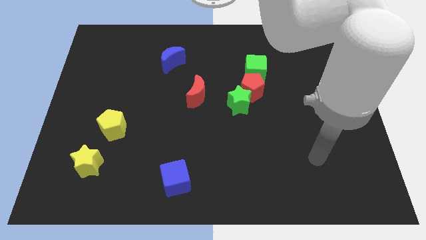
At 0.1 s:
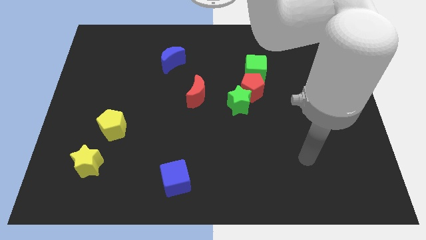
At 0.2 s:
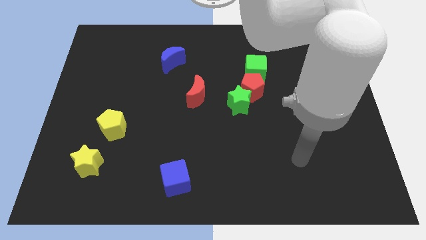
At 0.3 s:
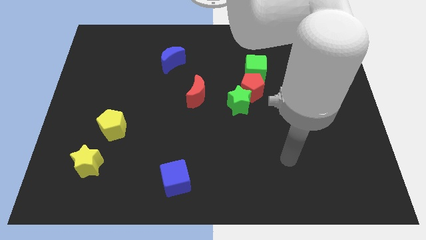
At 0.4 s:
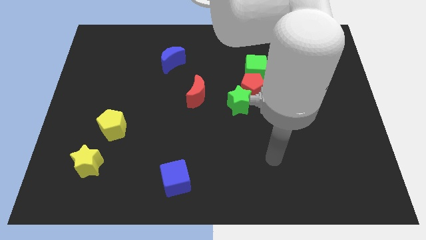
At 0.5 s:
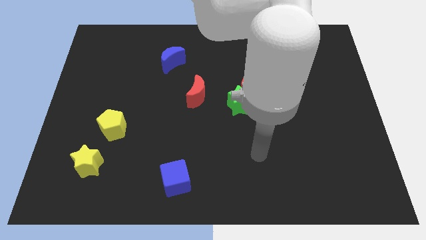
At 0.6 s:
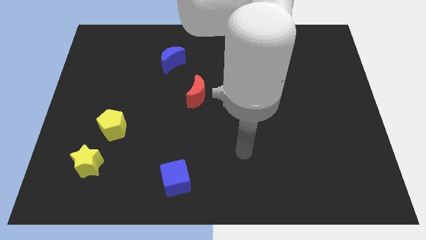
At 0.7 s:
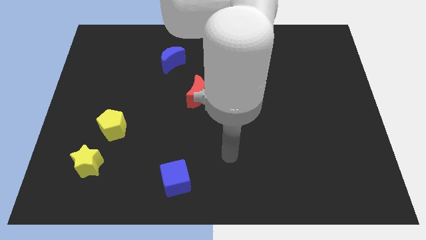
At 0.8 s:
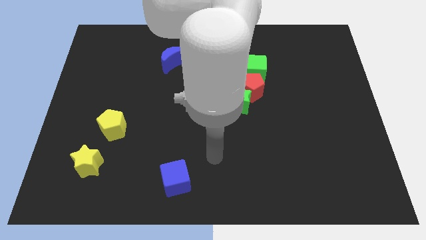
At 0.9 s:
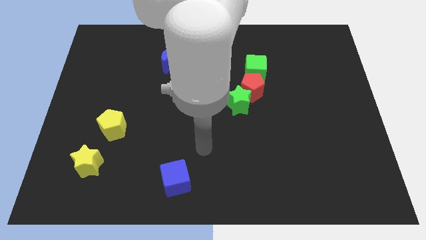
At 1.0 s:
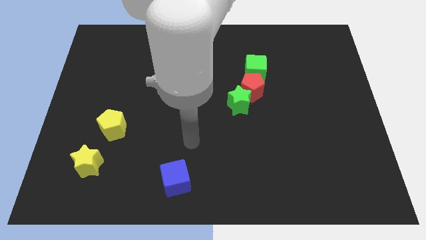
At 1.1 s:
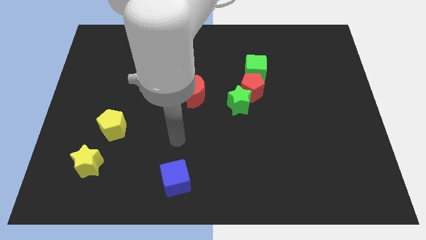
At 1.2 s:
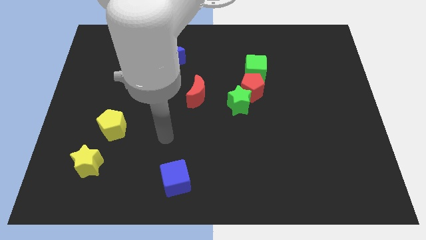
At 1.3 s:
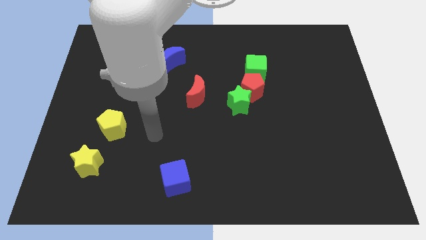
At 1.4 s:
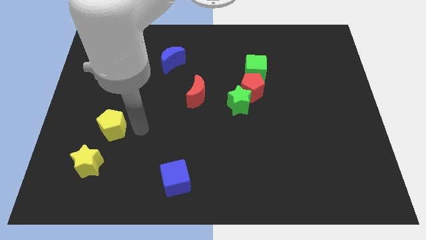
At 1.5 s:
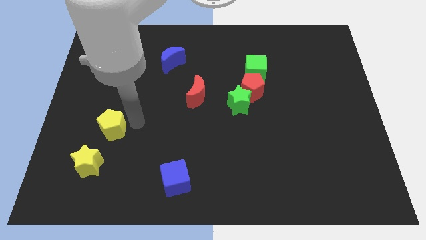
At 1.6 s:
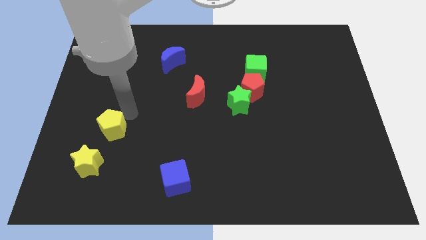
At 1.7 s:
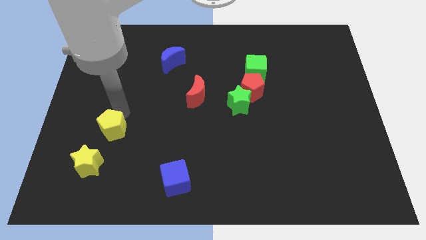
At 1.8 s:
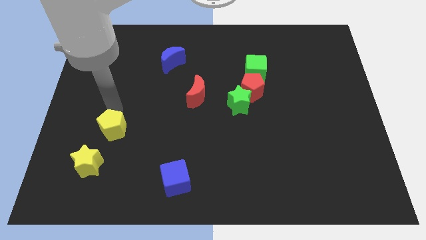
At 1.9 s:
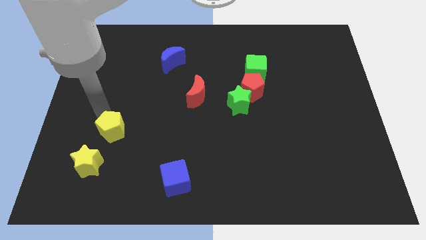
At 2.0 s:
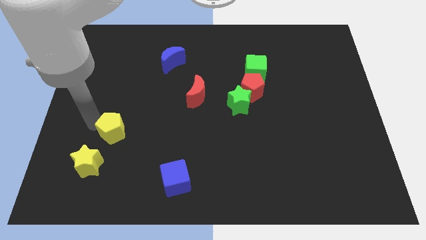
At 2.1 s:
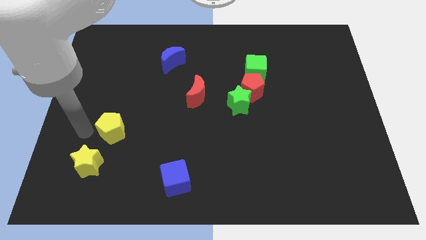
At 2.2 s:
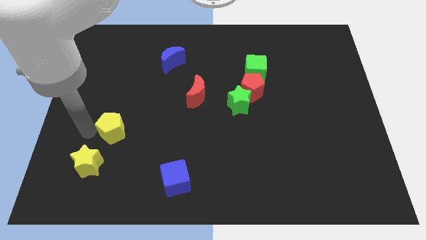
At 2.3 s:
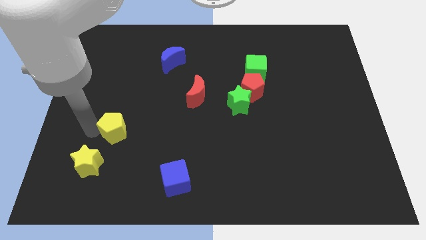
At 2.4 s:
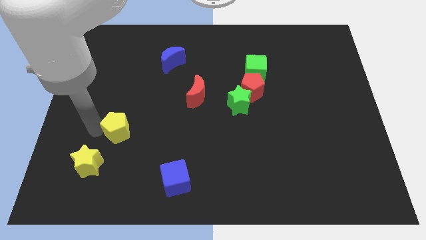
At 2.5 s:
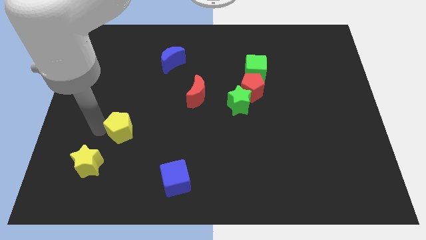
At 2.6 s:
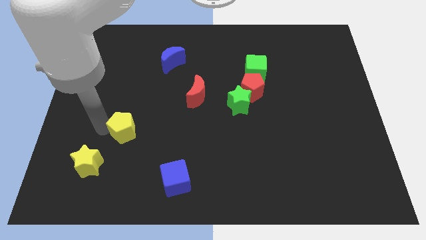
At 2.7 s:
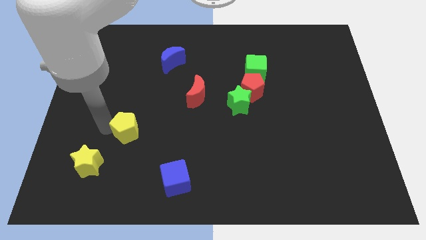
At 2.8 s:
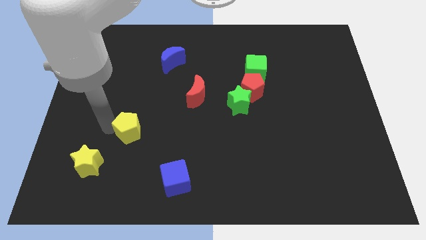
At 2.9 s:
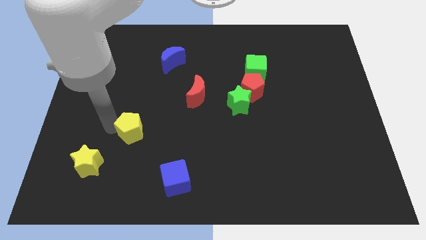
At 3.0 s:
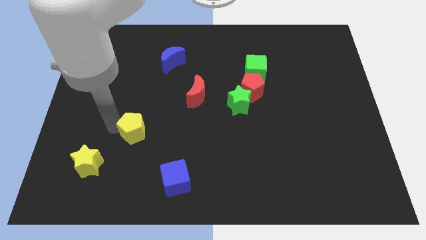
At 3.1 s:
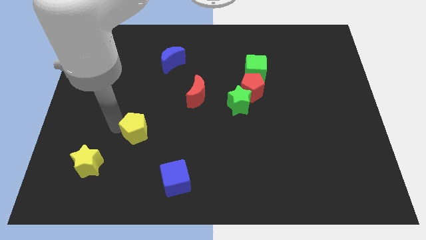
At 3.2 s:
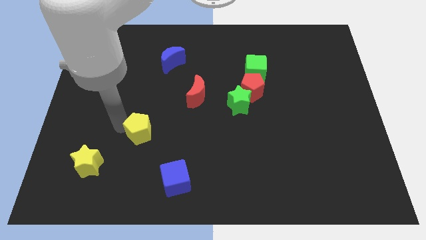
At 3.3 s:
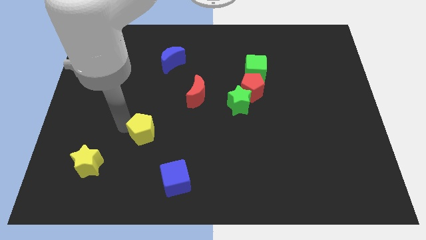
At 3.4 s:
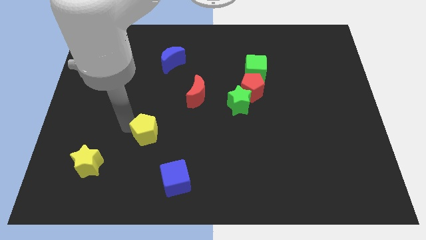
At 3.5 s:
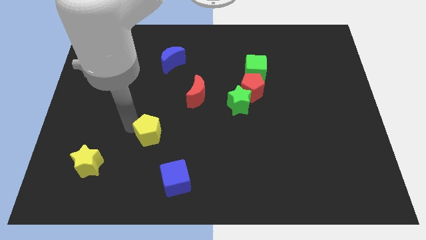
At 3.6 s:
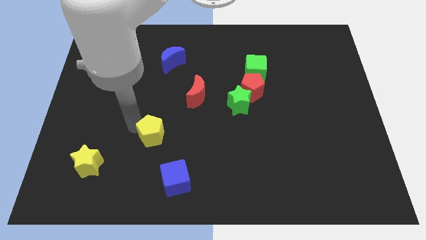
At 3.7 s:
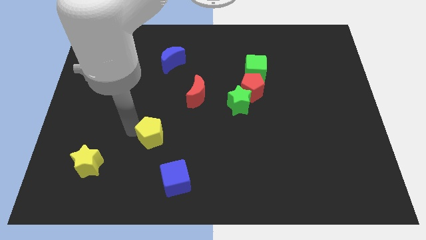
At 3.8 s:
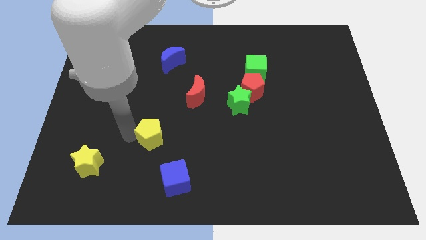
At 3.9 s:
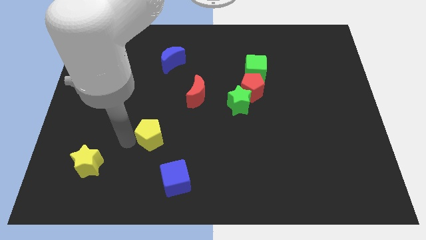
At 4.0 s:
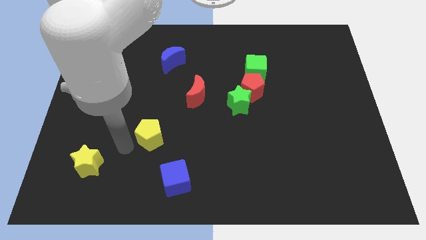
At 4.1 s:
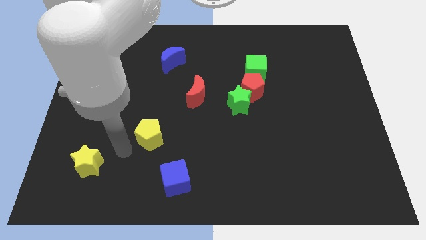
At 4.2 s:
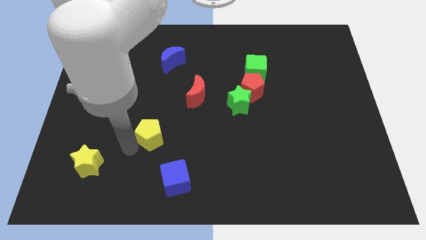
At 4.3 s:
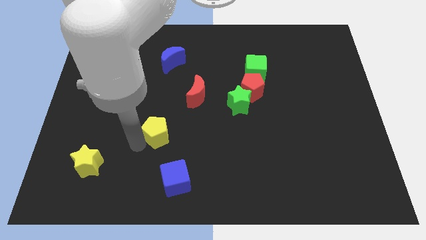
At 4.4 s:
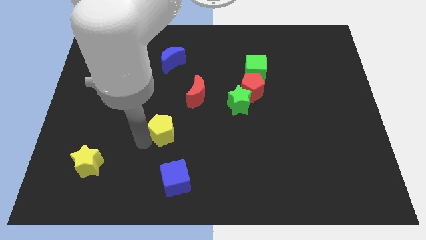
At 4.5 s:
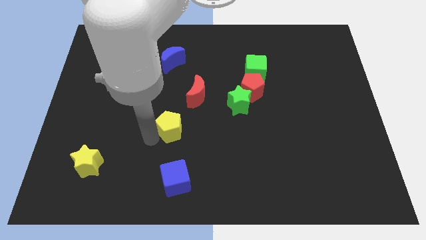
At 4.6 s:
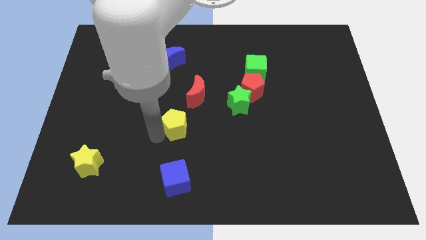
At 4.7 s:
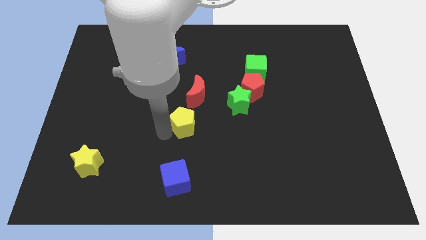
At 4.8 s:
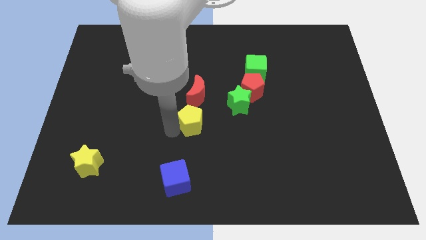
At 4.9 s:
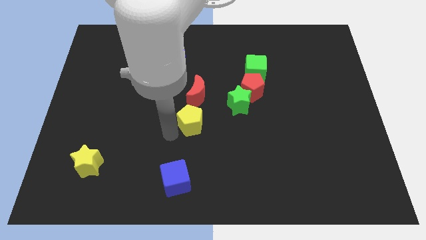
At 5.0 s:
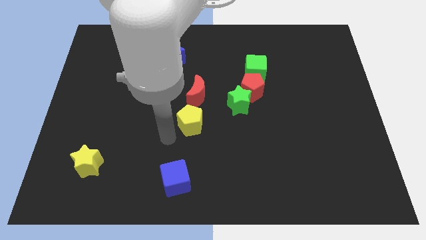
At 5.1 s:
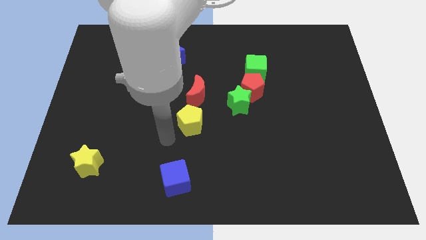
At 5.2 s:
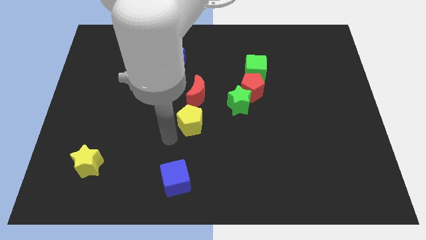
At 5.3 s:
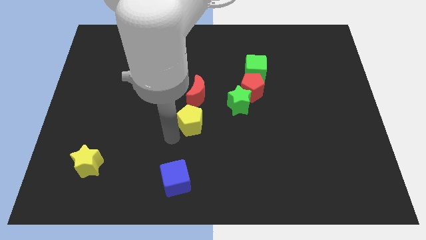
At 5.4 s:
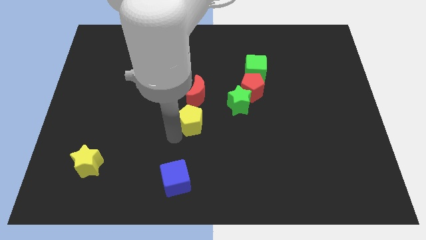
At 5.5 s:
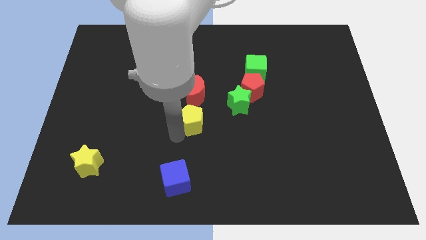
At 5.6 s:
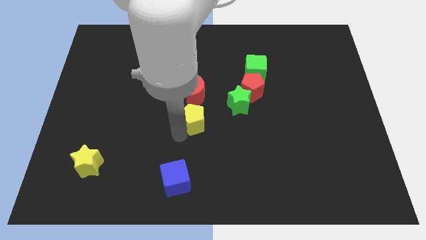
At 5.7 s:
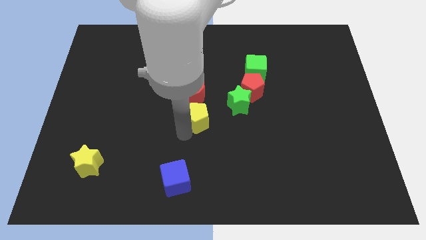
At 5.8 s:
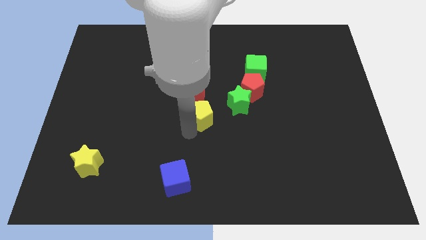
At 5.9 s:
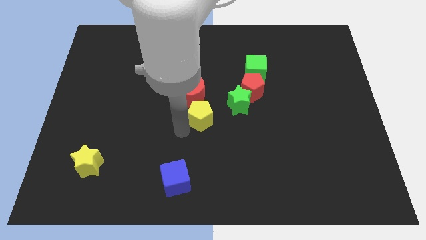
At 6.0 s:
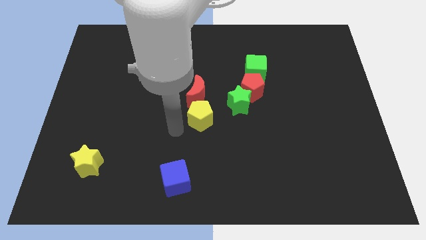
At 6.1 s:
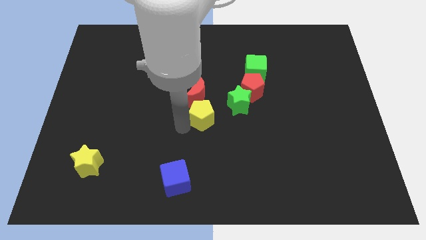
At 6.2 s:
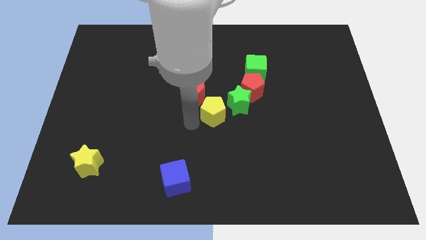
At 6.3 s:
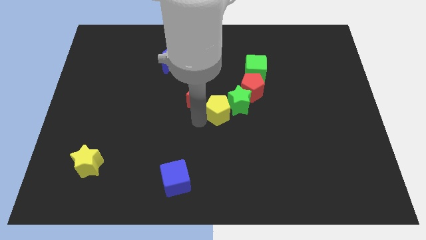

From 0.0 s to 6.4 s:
put the yellow pentagon close to the green star
